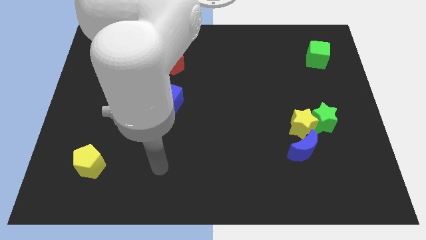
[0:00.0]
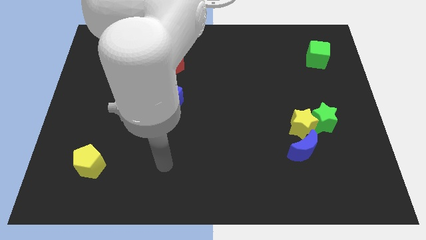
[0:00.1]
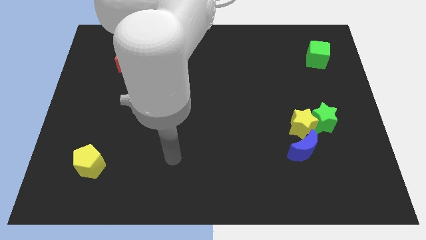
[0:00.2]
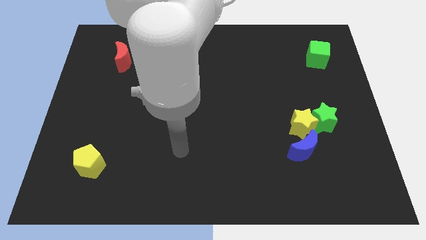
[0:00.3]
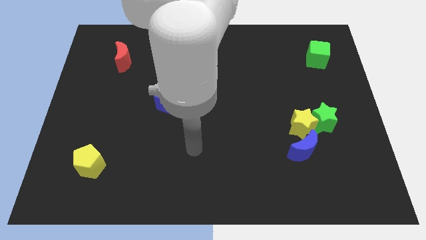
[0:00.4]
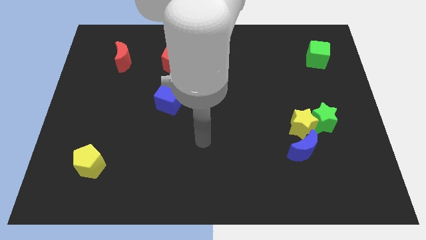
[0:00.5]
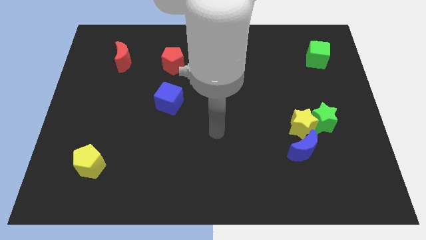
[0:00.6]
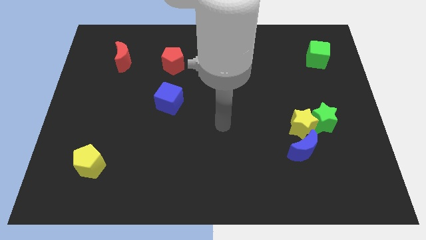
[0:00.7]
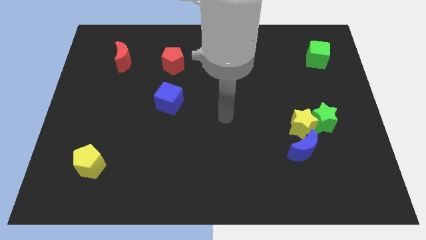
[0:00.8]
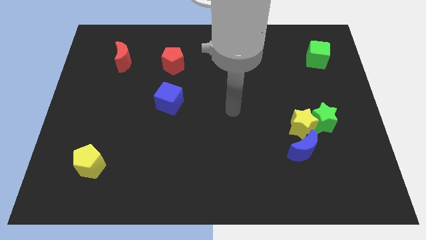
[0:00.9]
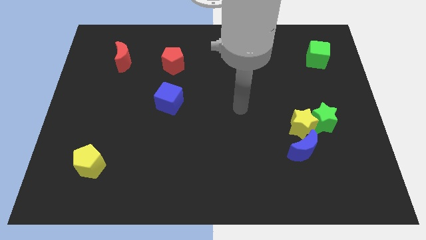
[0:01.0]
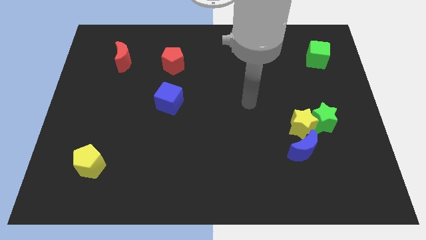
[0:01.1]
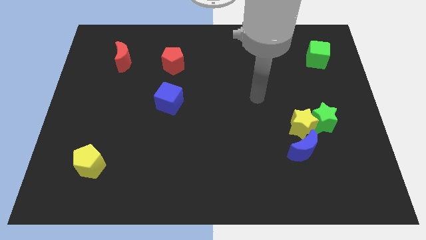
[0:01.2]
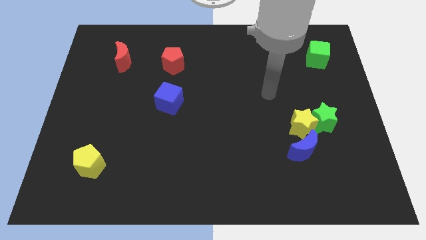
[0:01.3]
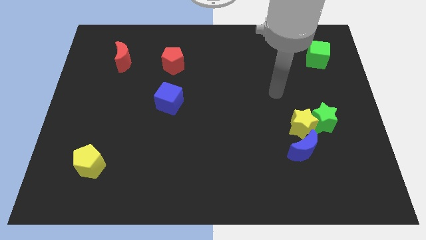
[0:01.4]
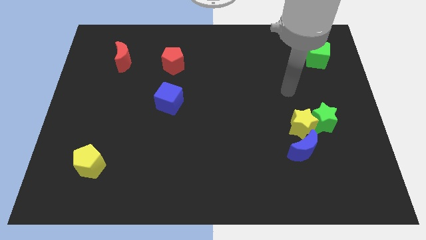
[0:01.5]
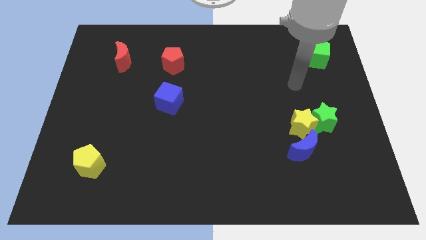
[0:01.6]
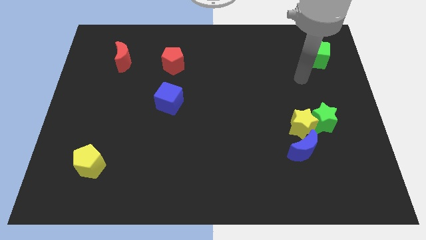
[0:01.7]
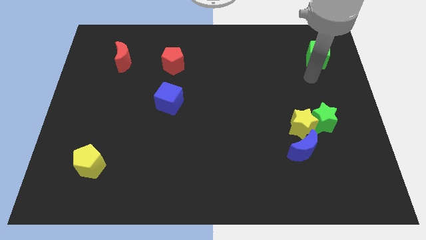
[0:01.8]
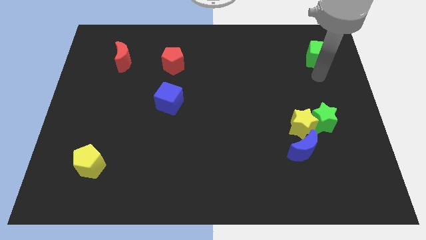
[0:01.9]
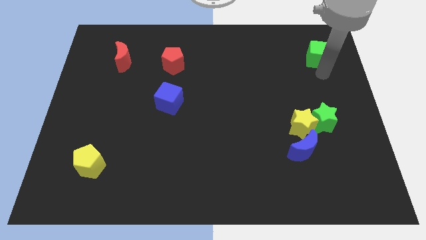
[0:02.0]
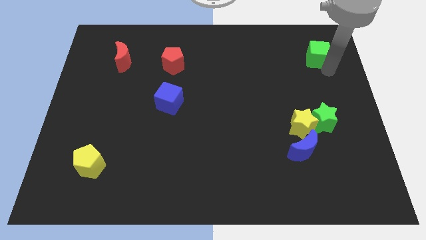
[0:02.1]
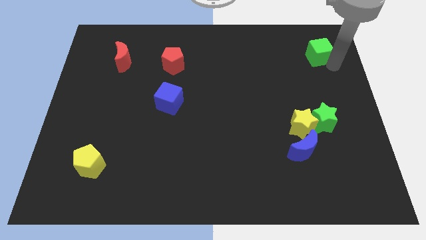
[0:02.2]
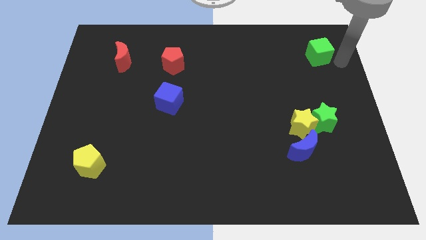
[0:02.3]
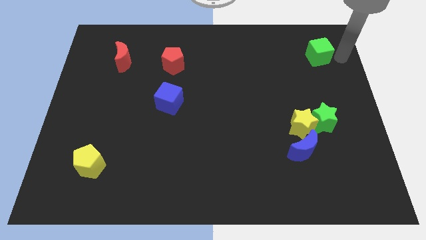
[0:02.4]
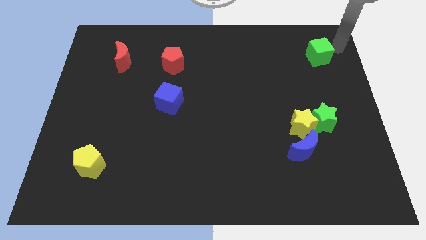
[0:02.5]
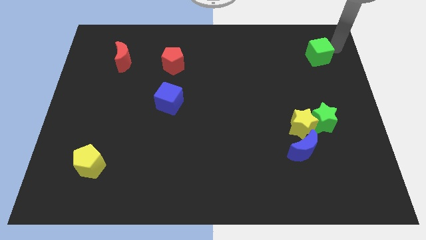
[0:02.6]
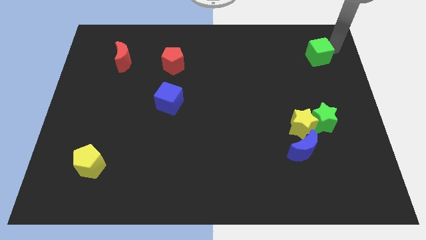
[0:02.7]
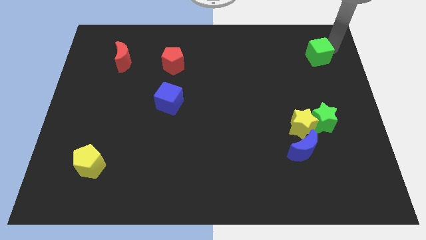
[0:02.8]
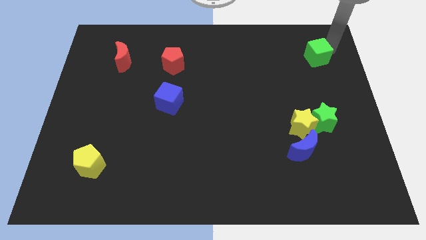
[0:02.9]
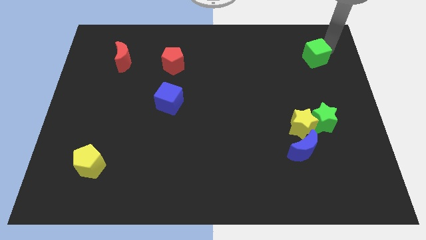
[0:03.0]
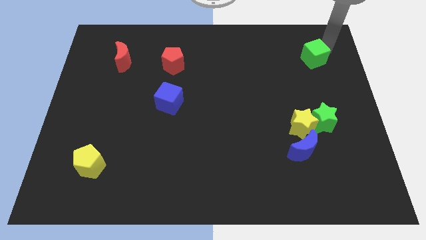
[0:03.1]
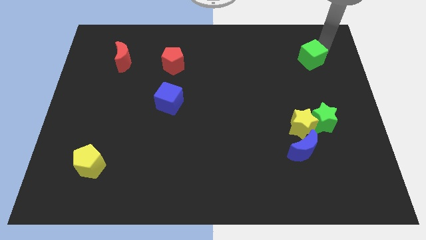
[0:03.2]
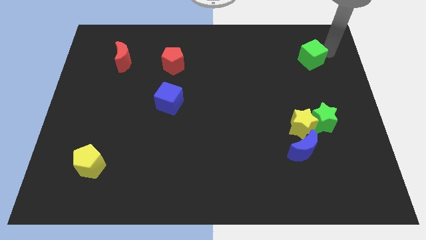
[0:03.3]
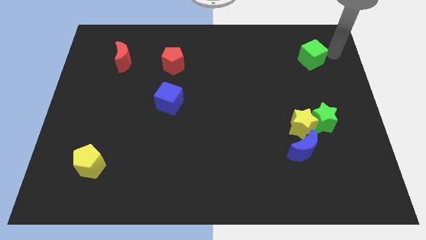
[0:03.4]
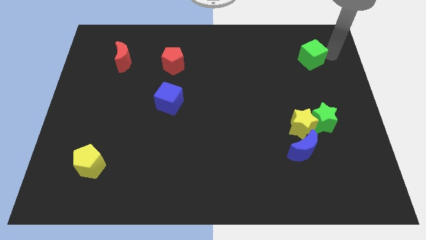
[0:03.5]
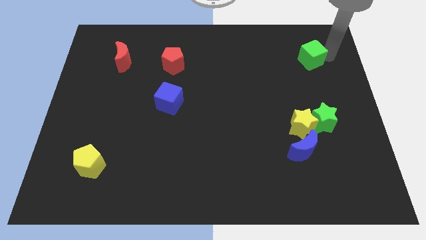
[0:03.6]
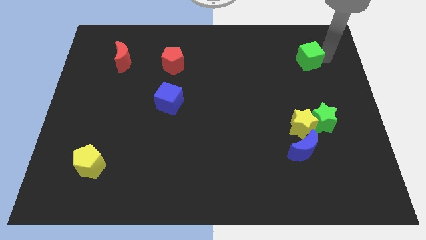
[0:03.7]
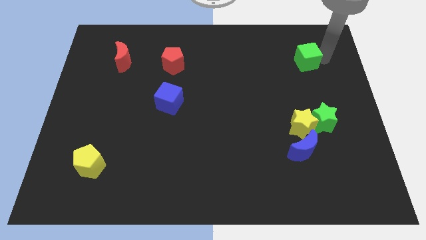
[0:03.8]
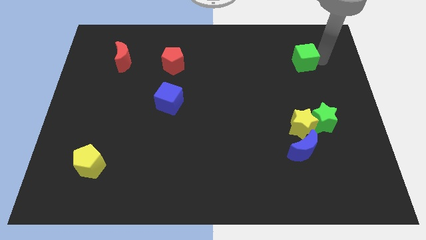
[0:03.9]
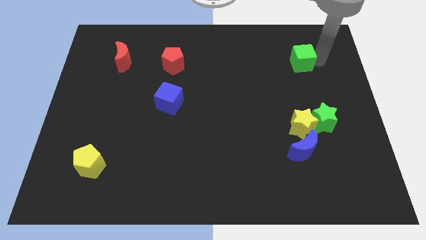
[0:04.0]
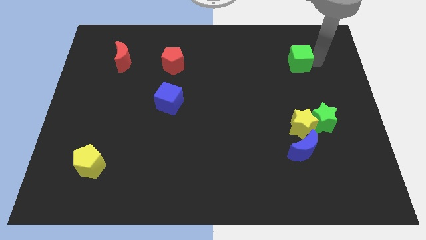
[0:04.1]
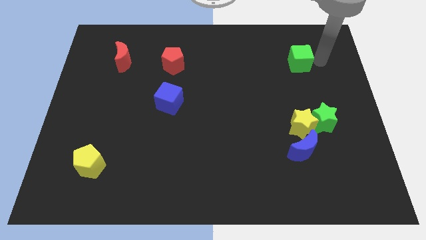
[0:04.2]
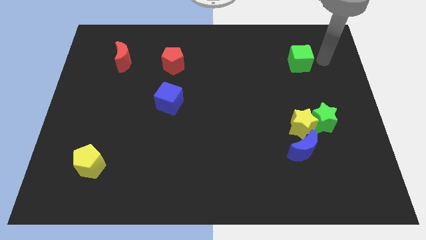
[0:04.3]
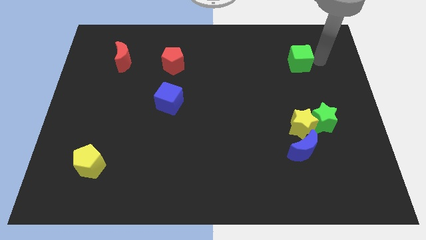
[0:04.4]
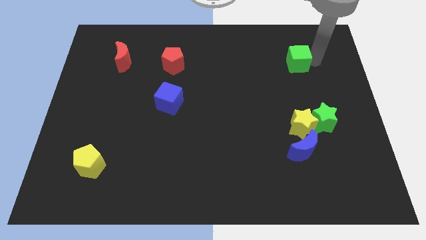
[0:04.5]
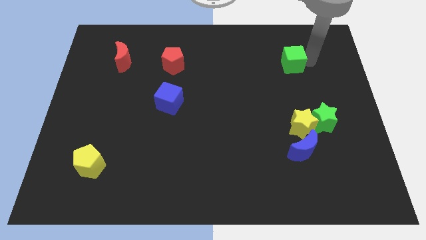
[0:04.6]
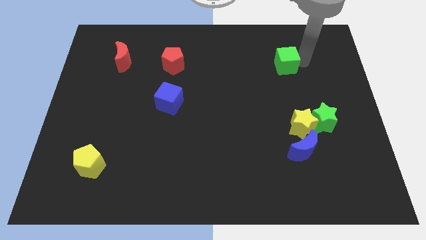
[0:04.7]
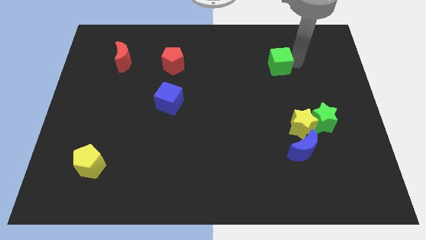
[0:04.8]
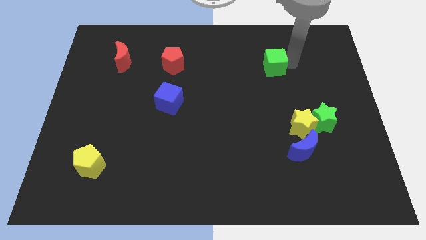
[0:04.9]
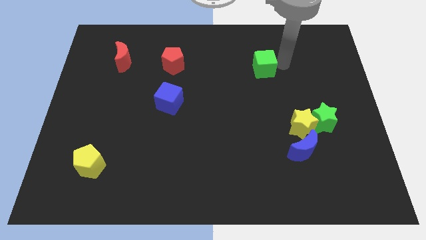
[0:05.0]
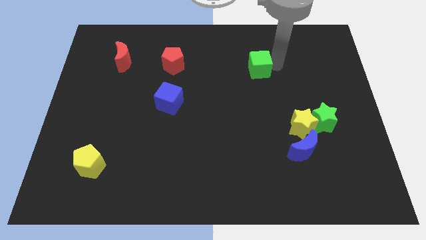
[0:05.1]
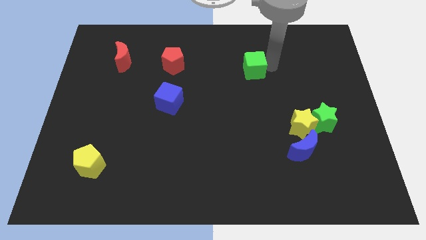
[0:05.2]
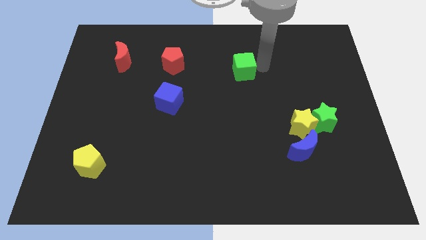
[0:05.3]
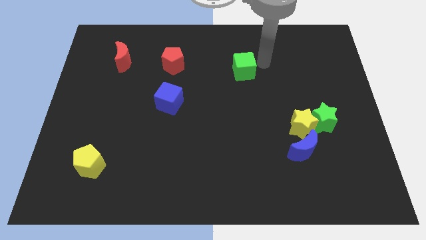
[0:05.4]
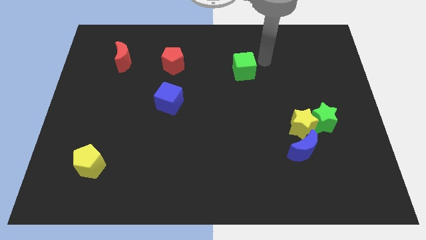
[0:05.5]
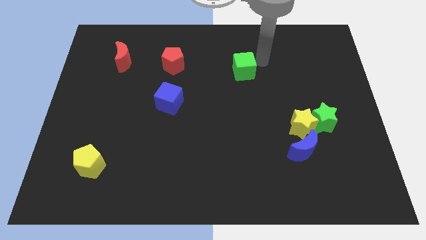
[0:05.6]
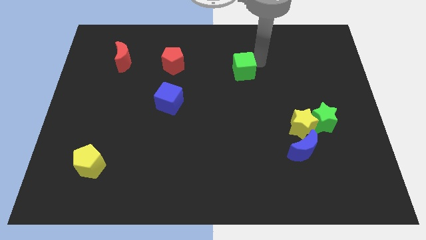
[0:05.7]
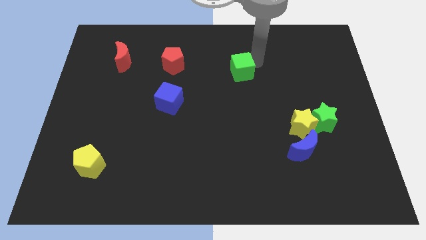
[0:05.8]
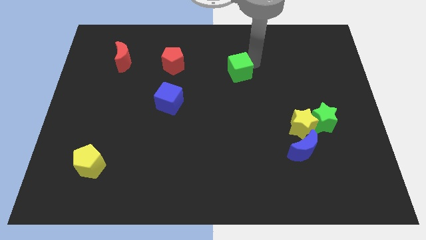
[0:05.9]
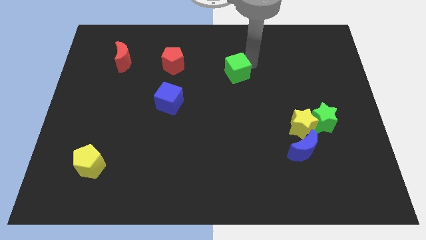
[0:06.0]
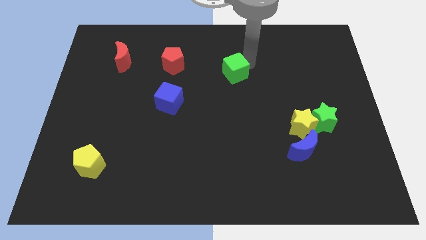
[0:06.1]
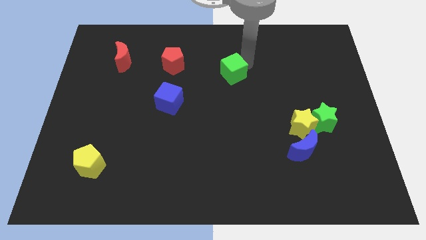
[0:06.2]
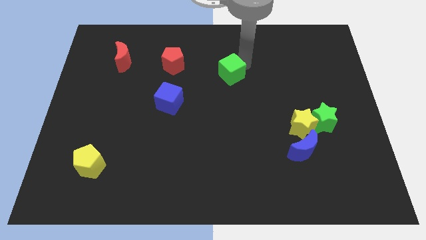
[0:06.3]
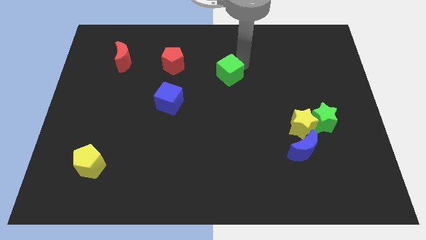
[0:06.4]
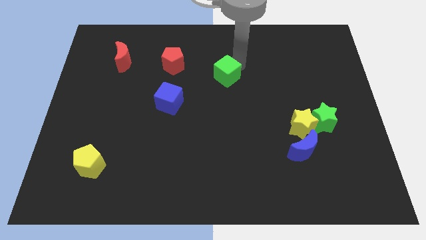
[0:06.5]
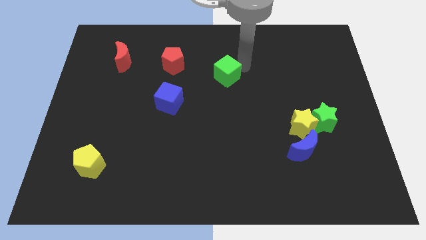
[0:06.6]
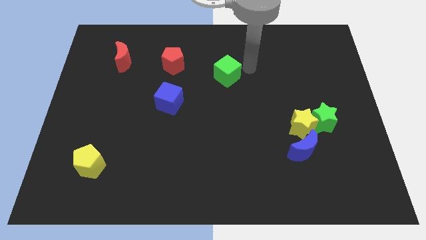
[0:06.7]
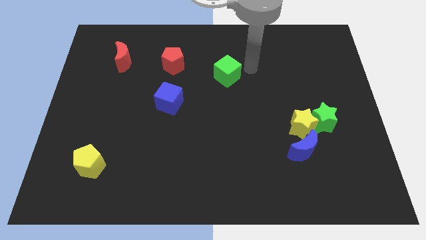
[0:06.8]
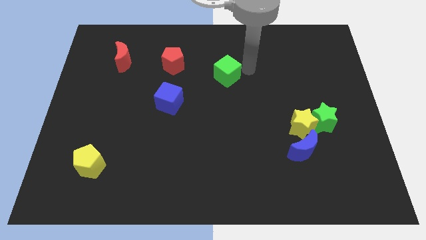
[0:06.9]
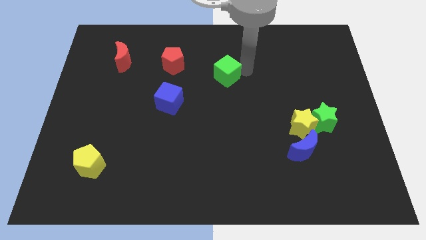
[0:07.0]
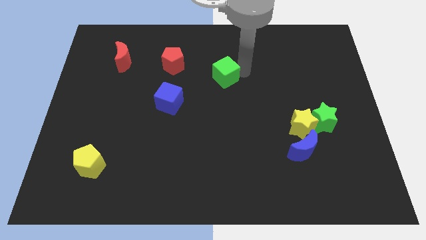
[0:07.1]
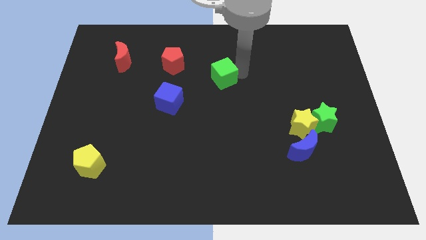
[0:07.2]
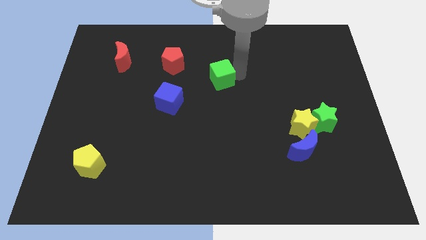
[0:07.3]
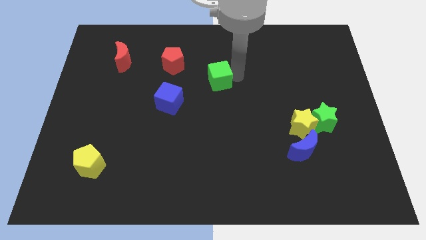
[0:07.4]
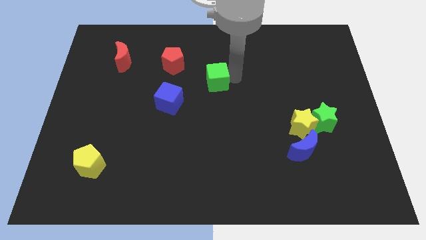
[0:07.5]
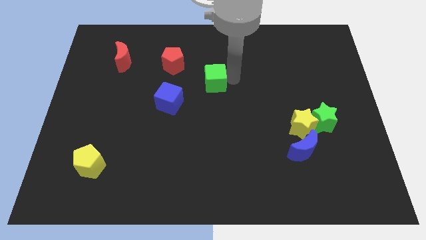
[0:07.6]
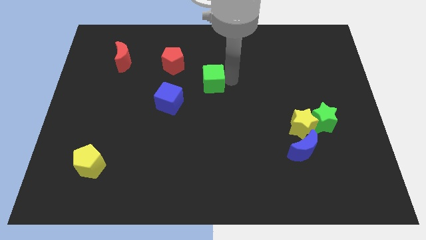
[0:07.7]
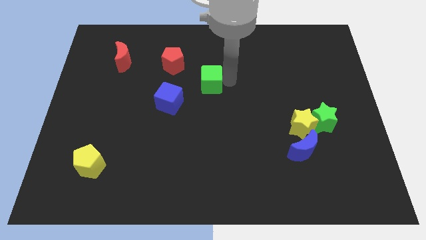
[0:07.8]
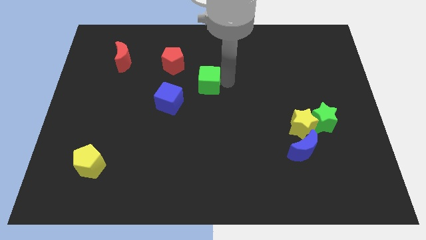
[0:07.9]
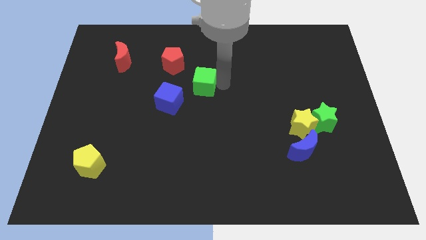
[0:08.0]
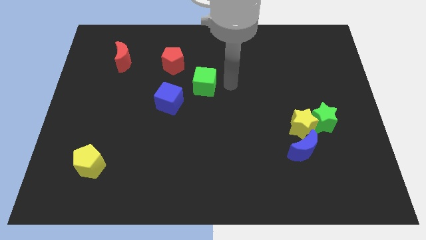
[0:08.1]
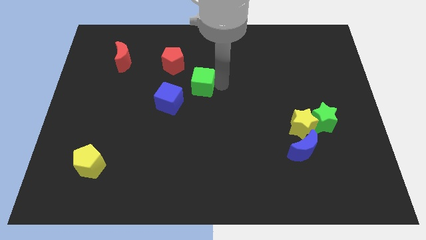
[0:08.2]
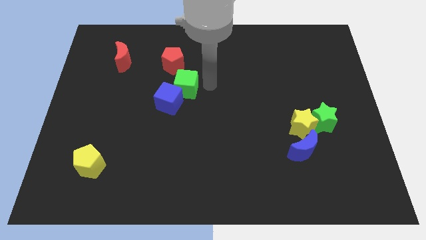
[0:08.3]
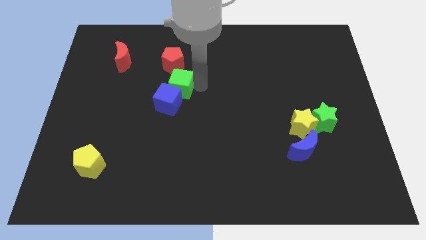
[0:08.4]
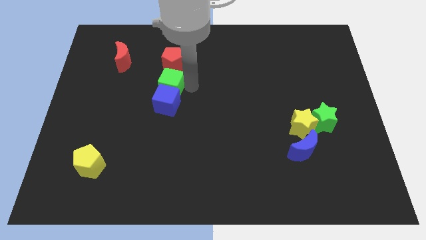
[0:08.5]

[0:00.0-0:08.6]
slide the green cube to the top left side of the blue cube
